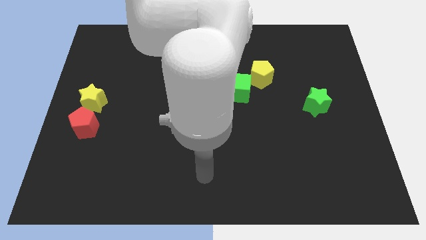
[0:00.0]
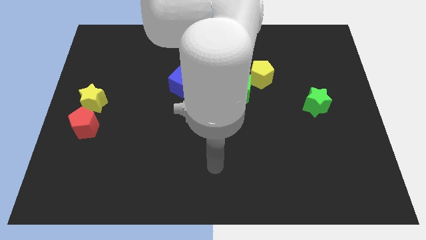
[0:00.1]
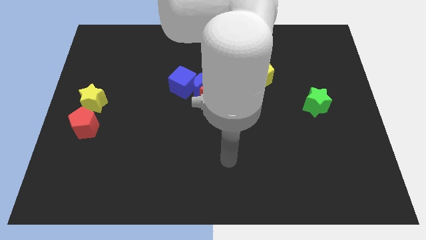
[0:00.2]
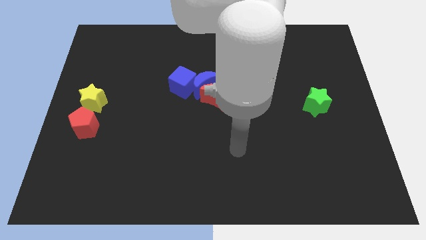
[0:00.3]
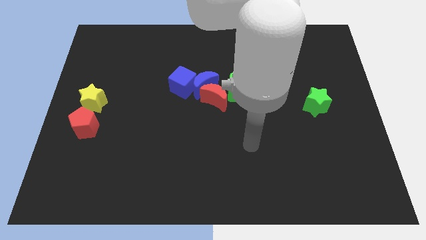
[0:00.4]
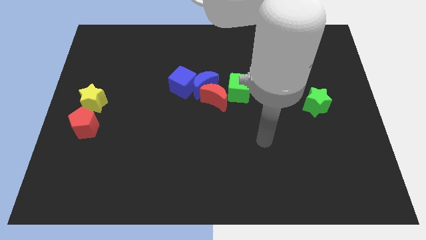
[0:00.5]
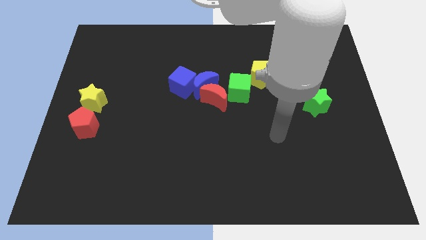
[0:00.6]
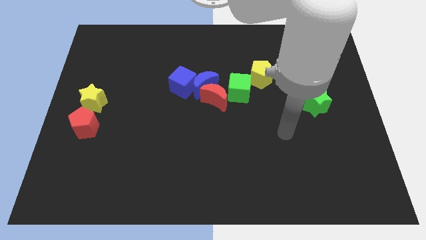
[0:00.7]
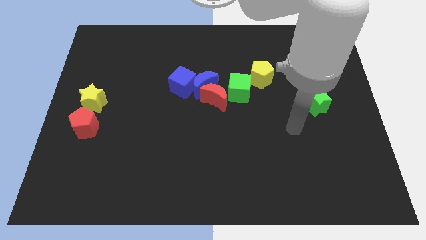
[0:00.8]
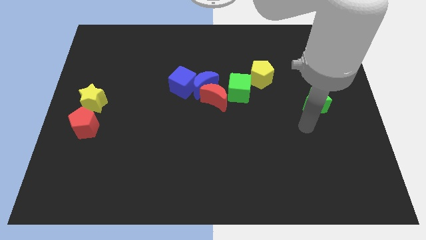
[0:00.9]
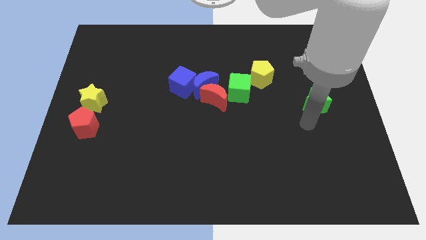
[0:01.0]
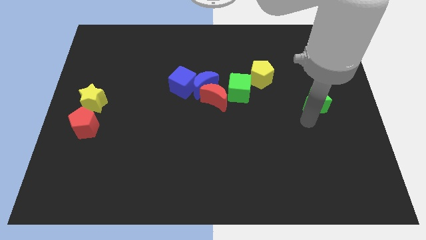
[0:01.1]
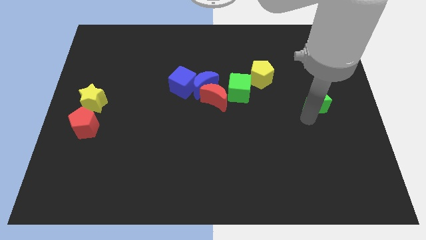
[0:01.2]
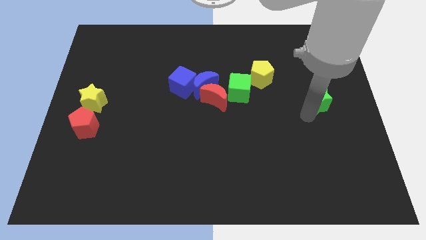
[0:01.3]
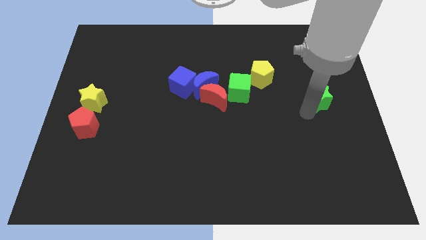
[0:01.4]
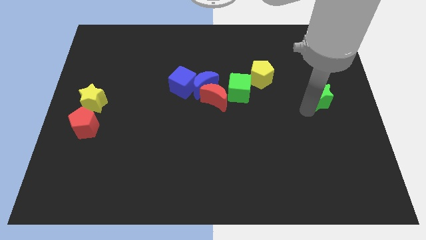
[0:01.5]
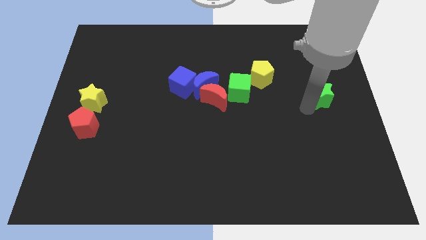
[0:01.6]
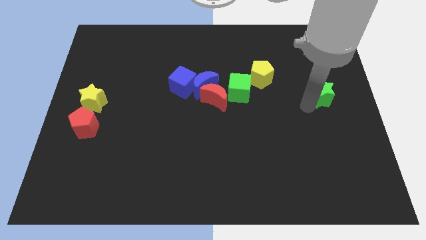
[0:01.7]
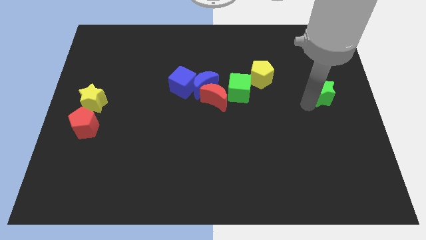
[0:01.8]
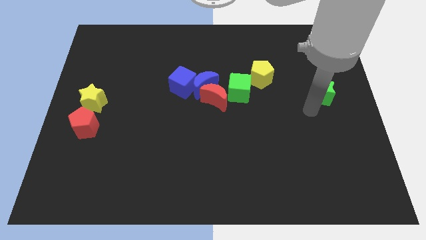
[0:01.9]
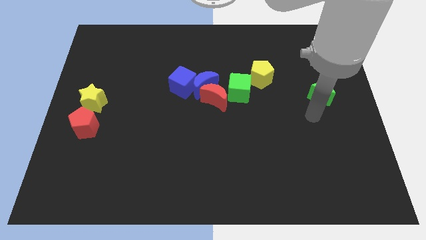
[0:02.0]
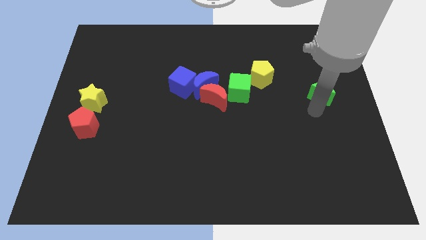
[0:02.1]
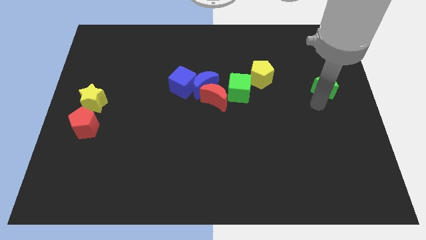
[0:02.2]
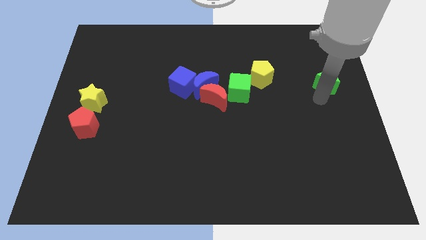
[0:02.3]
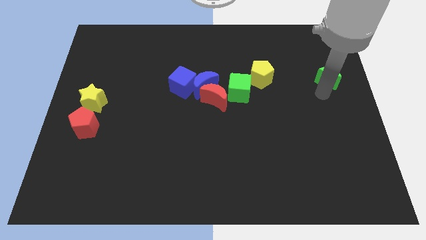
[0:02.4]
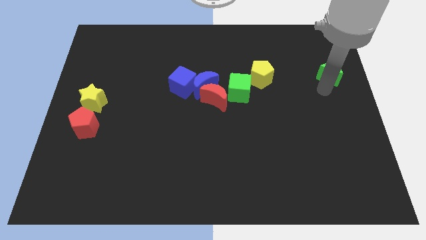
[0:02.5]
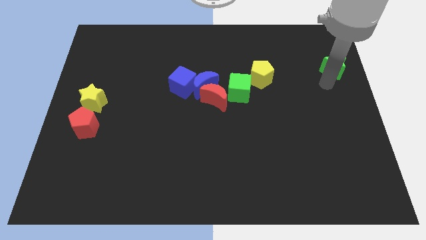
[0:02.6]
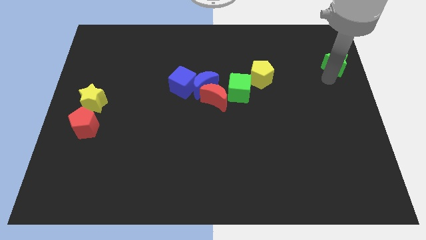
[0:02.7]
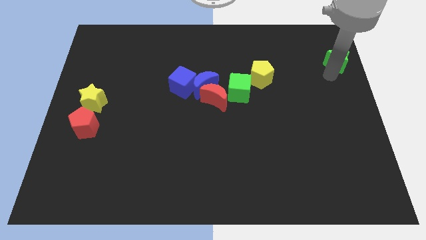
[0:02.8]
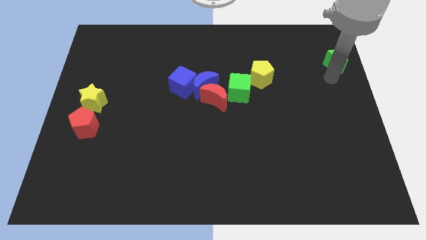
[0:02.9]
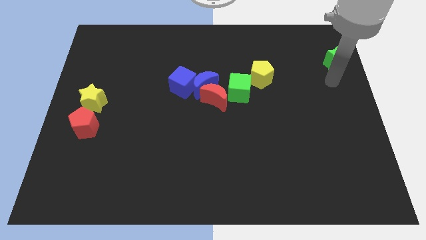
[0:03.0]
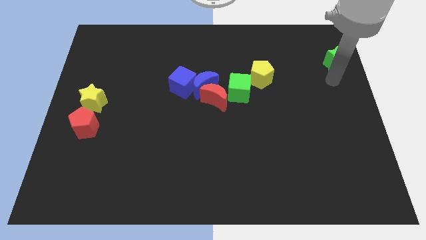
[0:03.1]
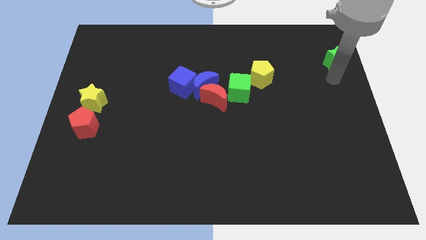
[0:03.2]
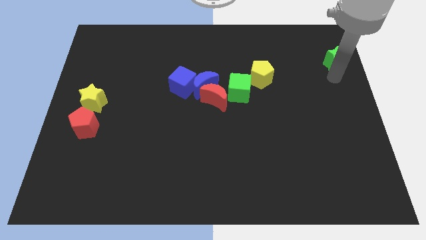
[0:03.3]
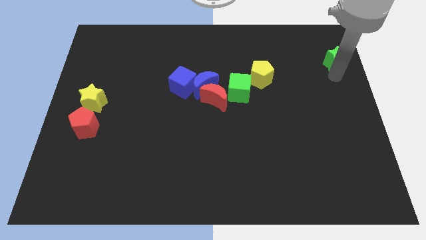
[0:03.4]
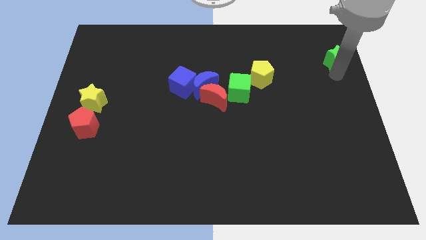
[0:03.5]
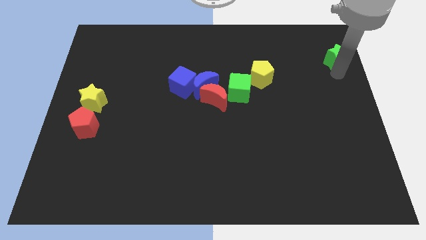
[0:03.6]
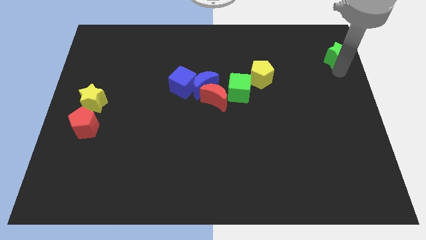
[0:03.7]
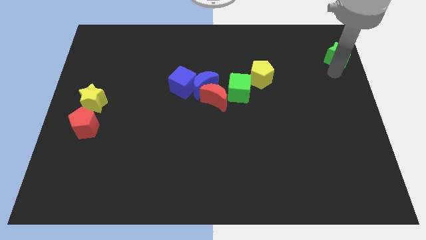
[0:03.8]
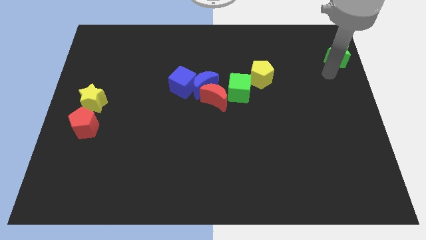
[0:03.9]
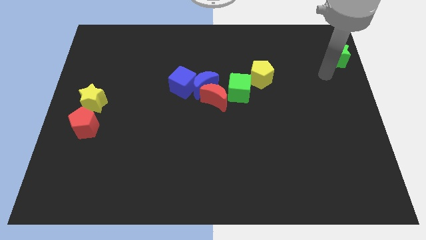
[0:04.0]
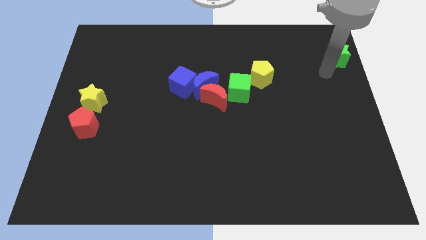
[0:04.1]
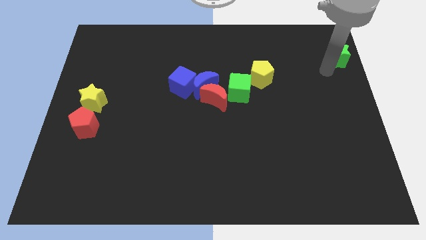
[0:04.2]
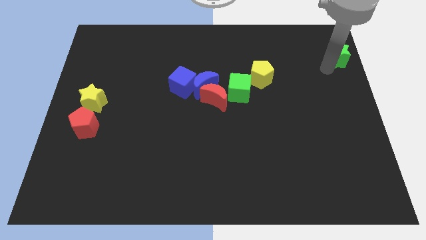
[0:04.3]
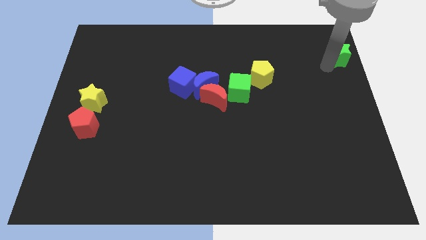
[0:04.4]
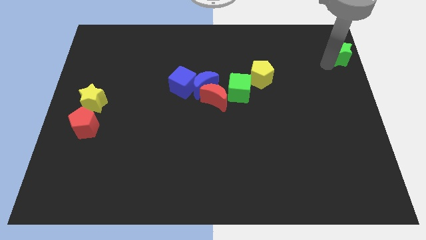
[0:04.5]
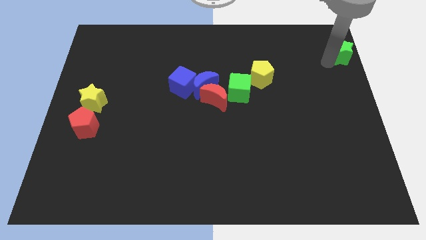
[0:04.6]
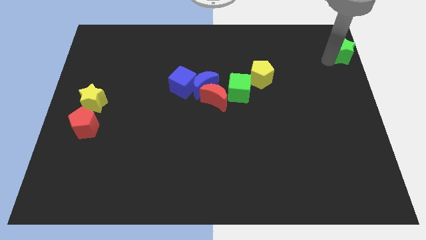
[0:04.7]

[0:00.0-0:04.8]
push the green star to the top right corner

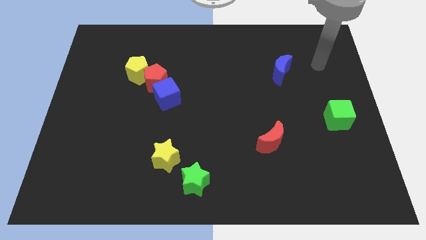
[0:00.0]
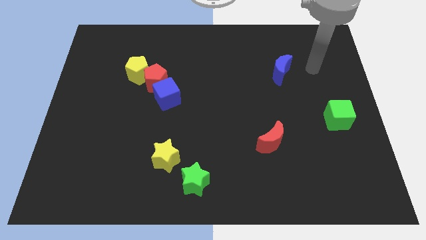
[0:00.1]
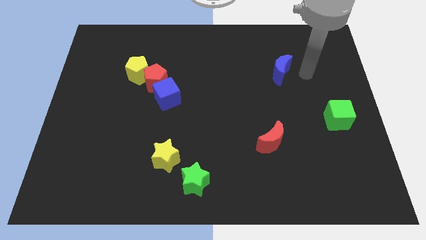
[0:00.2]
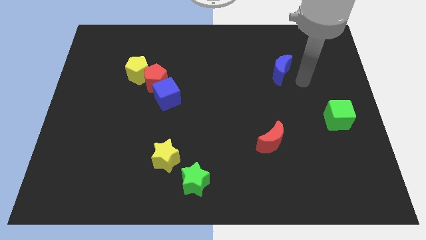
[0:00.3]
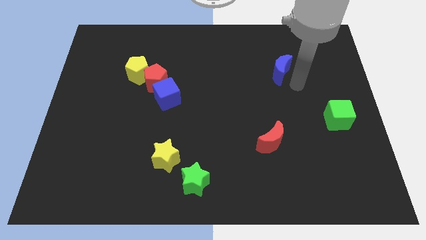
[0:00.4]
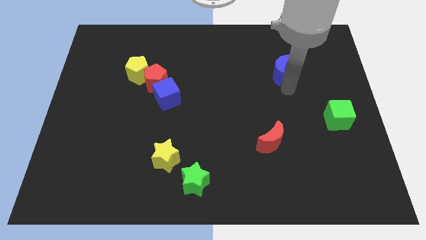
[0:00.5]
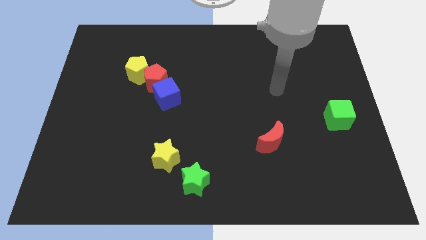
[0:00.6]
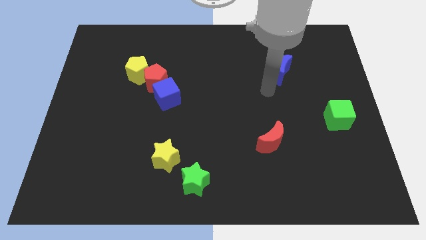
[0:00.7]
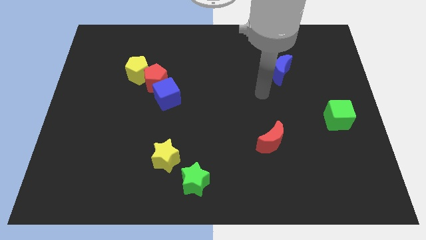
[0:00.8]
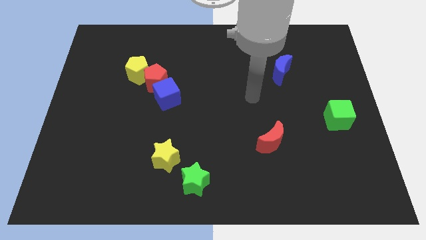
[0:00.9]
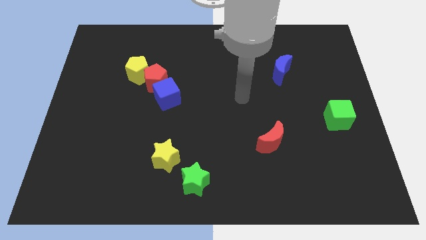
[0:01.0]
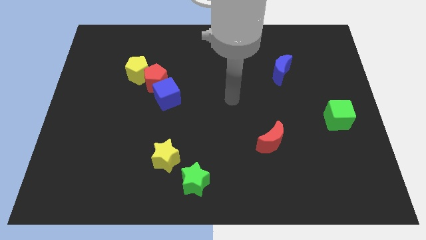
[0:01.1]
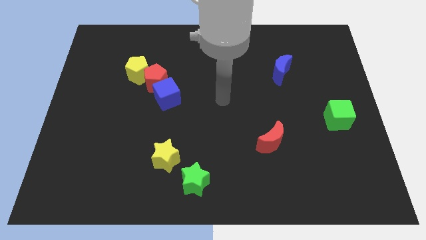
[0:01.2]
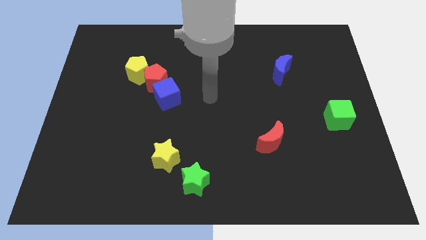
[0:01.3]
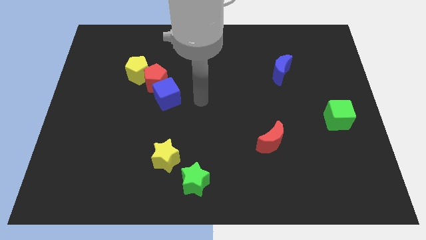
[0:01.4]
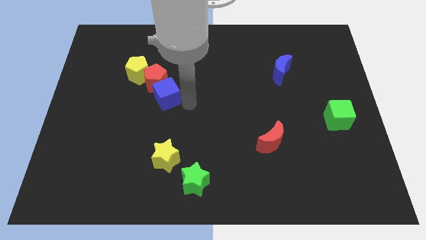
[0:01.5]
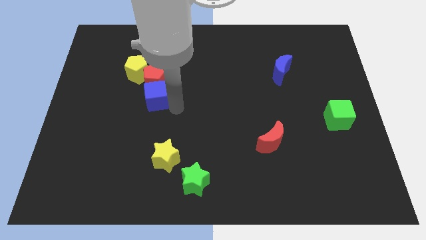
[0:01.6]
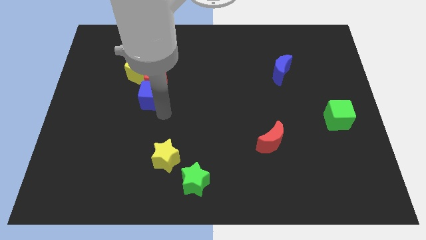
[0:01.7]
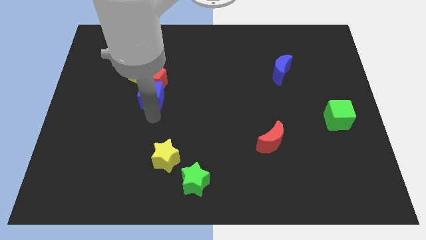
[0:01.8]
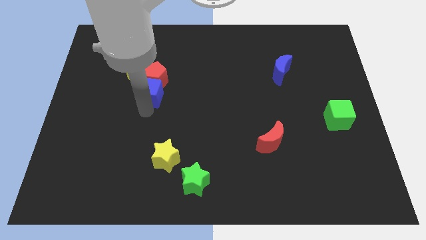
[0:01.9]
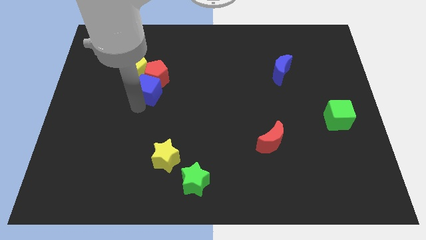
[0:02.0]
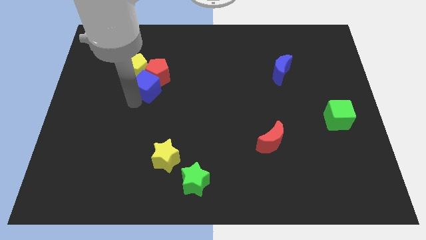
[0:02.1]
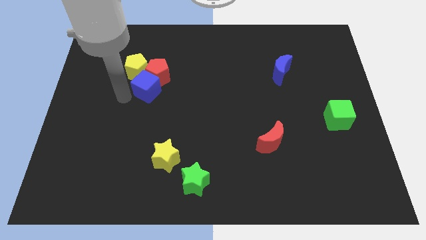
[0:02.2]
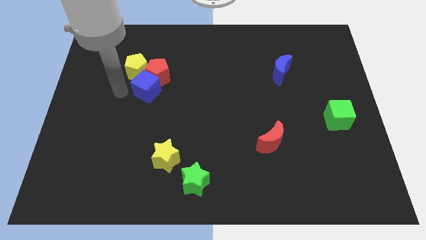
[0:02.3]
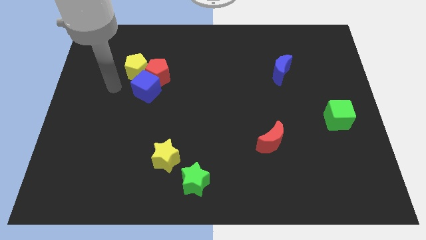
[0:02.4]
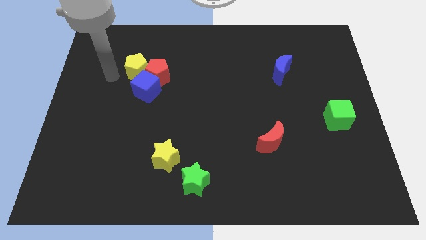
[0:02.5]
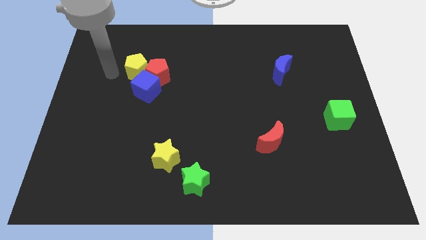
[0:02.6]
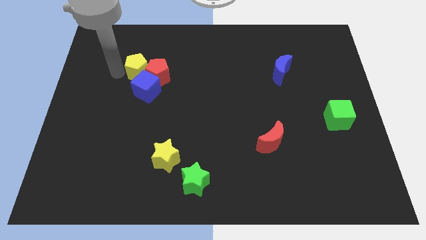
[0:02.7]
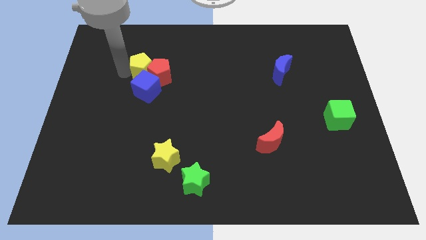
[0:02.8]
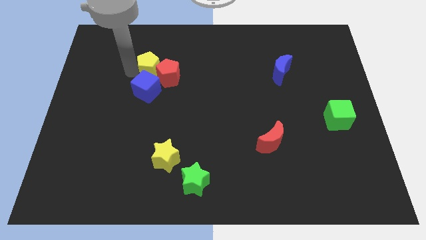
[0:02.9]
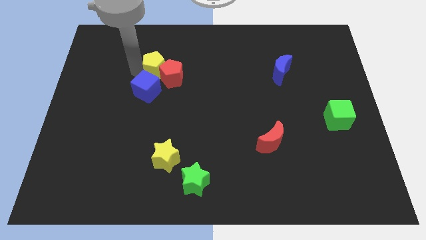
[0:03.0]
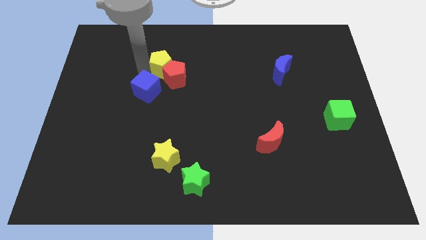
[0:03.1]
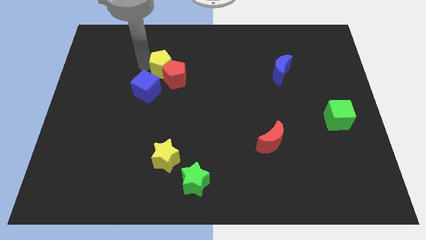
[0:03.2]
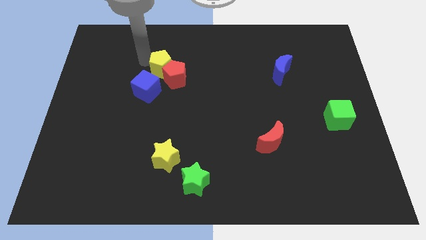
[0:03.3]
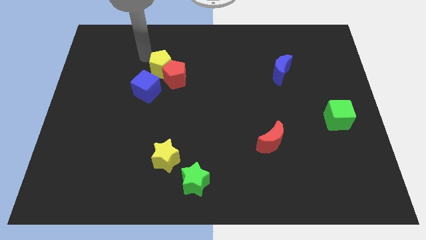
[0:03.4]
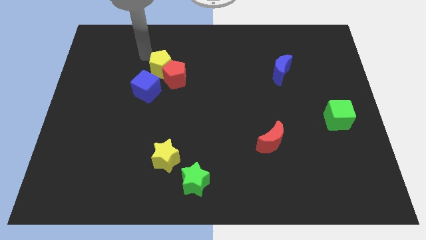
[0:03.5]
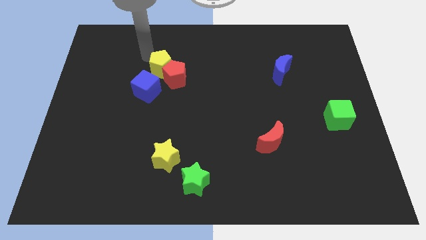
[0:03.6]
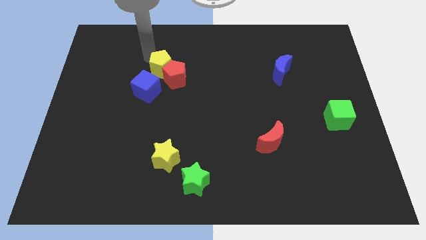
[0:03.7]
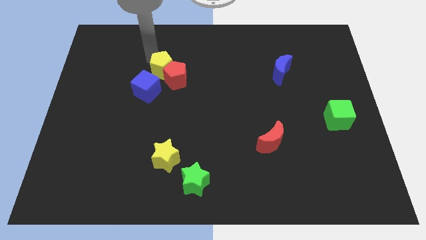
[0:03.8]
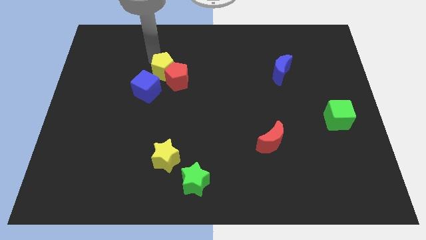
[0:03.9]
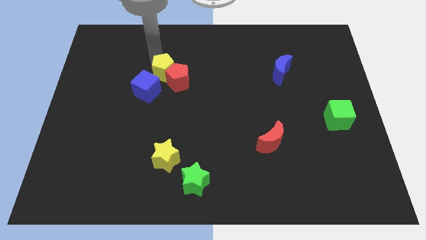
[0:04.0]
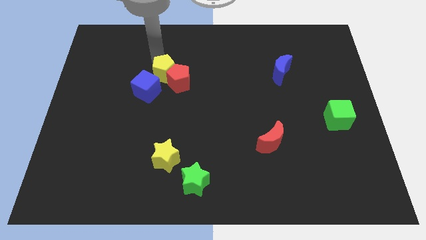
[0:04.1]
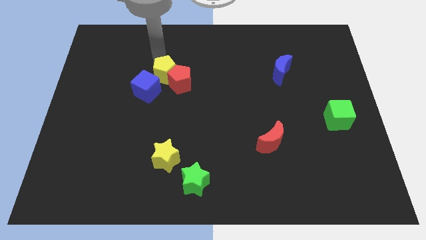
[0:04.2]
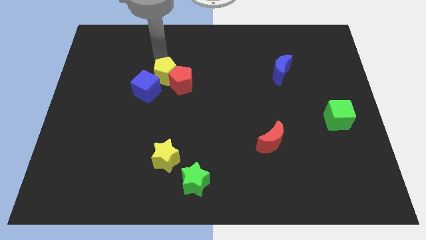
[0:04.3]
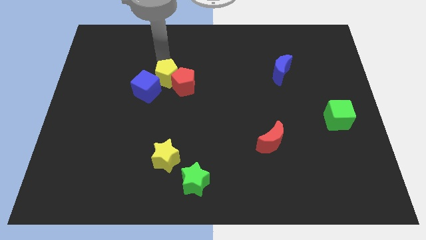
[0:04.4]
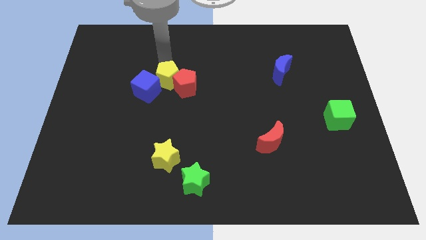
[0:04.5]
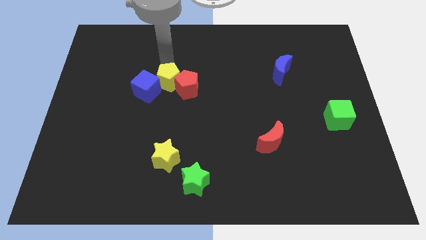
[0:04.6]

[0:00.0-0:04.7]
put the yellow pentagon to the center
